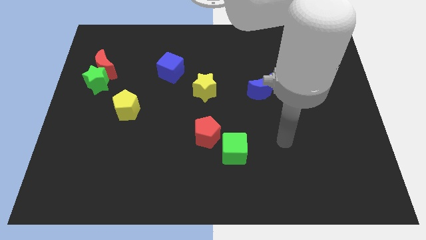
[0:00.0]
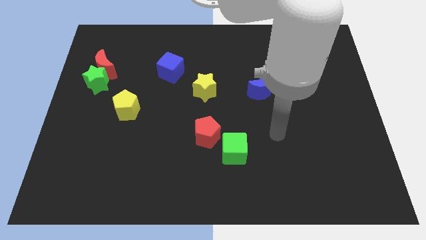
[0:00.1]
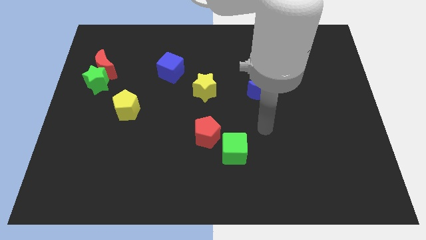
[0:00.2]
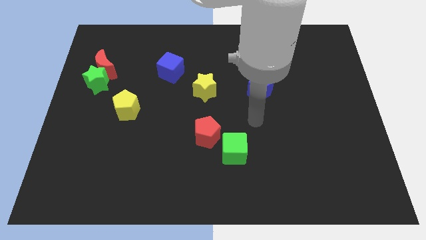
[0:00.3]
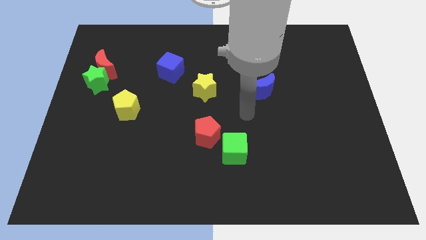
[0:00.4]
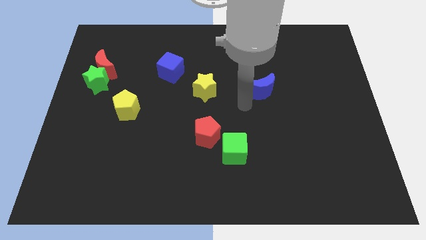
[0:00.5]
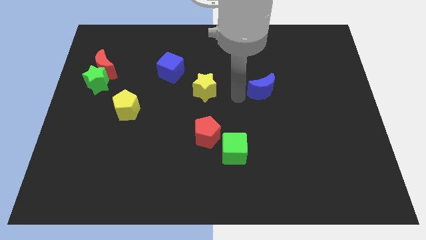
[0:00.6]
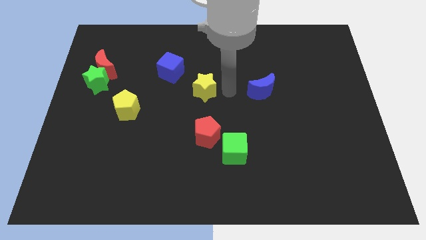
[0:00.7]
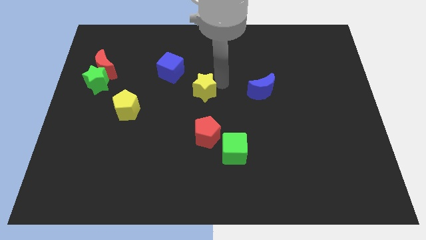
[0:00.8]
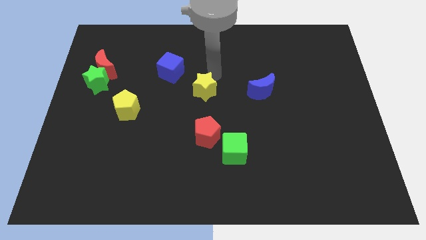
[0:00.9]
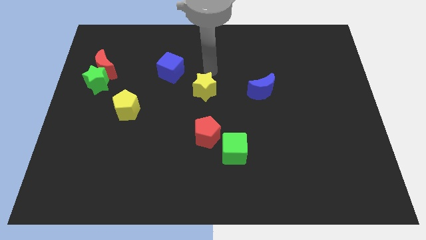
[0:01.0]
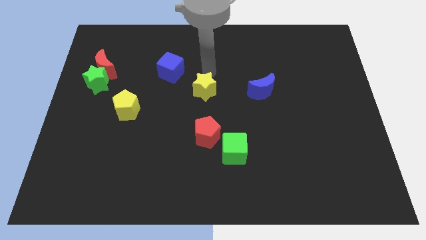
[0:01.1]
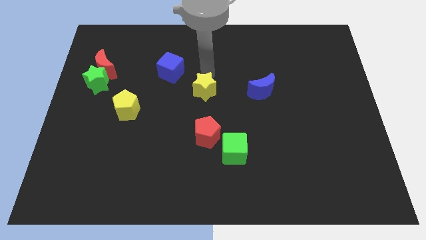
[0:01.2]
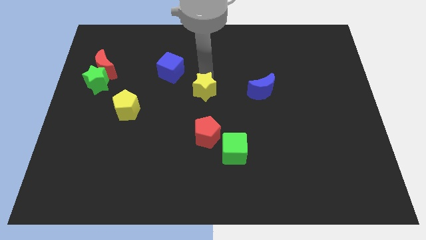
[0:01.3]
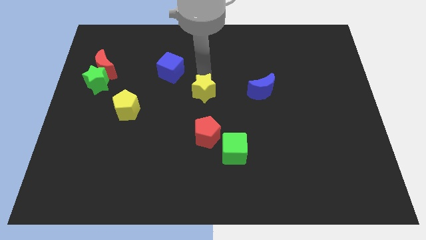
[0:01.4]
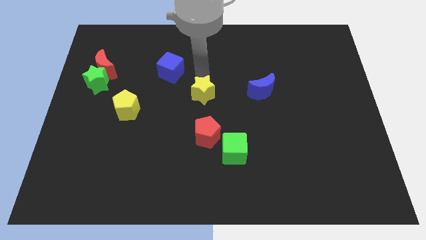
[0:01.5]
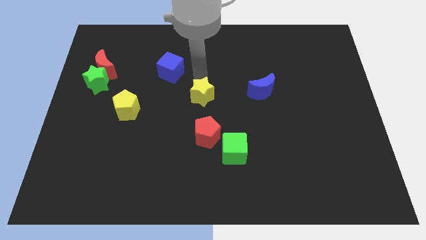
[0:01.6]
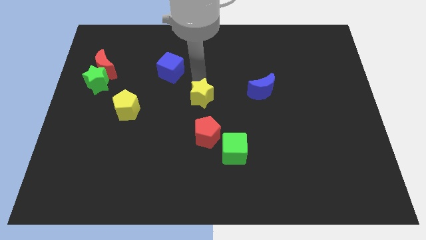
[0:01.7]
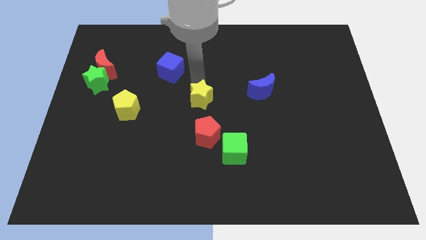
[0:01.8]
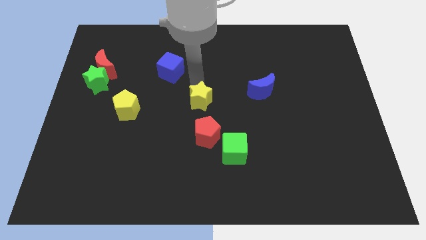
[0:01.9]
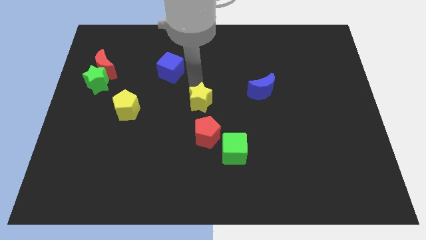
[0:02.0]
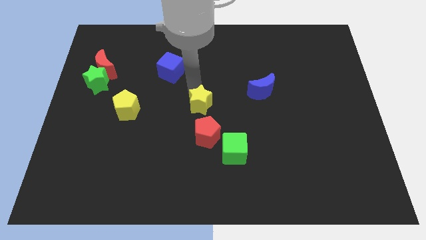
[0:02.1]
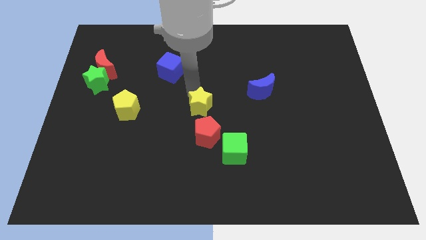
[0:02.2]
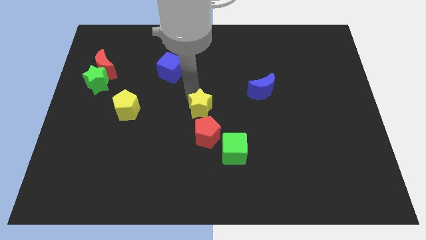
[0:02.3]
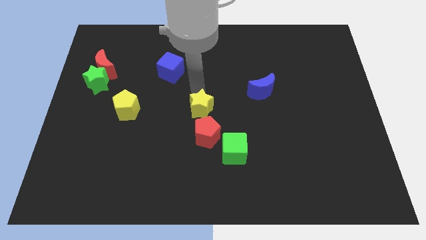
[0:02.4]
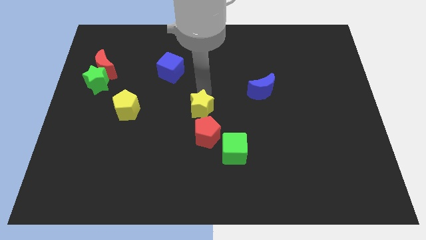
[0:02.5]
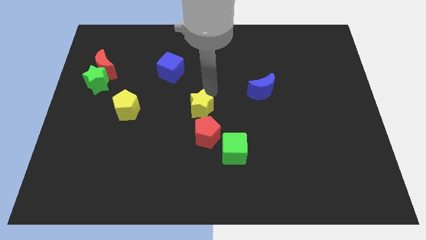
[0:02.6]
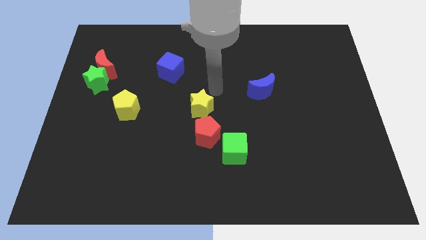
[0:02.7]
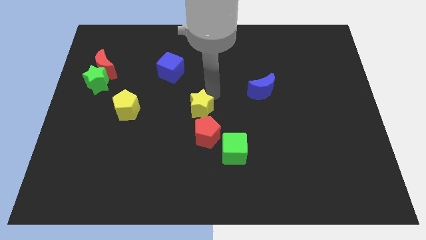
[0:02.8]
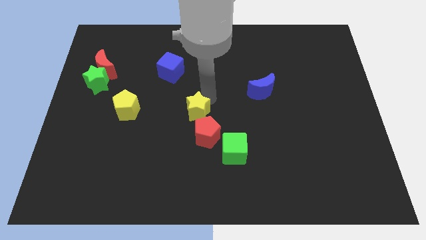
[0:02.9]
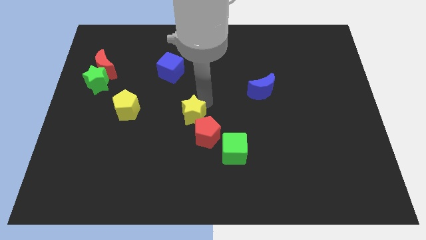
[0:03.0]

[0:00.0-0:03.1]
slightly push the yellow star down

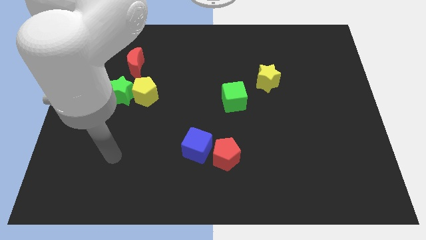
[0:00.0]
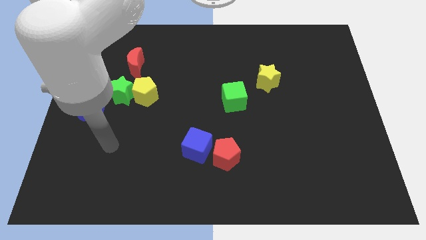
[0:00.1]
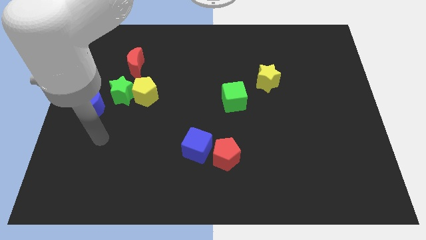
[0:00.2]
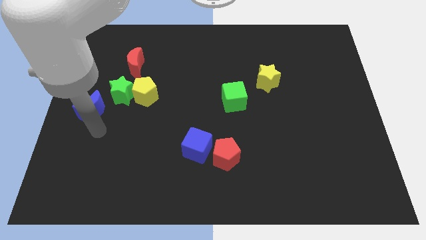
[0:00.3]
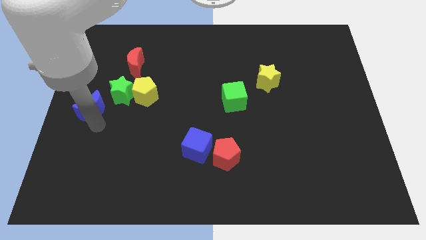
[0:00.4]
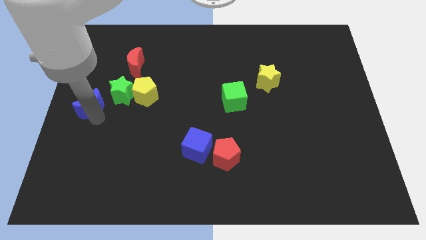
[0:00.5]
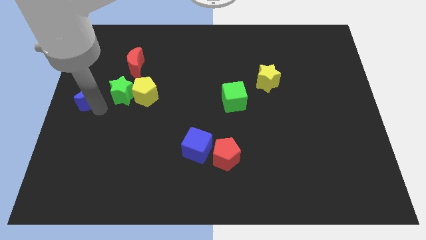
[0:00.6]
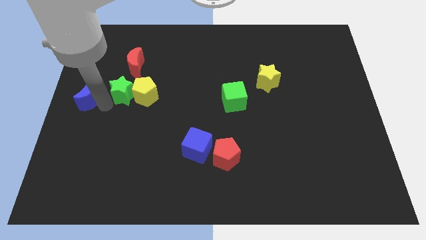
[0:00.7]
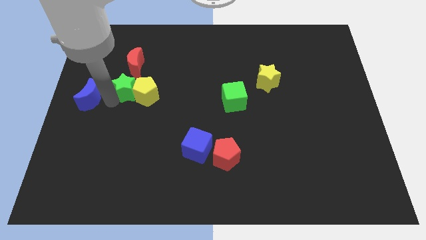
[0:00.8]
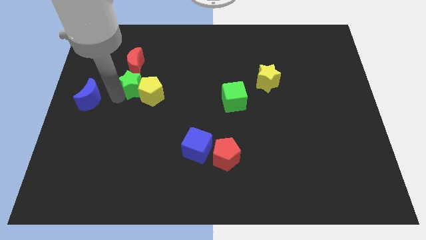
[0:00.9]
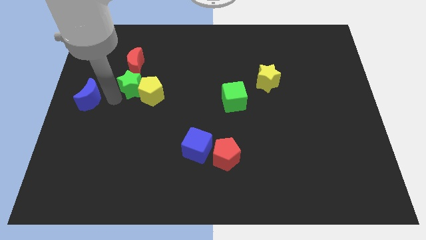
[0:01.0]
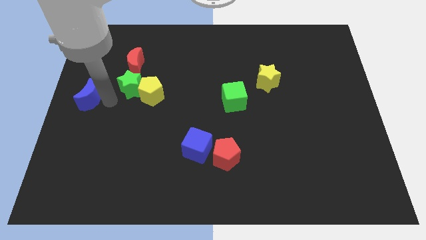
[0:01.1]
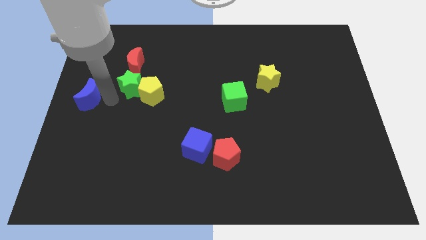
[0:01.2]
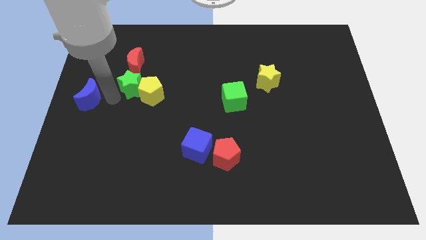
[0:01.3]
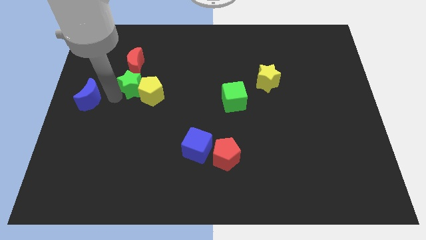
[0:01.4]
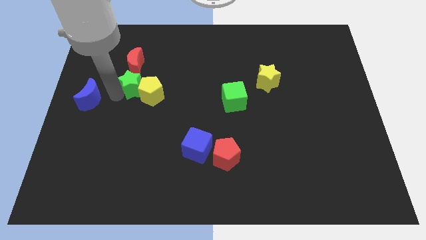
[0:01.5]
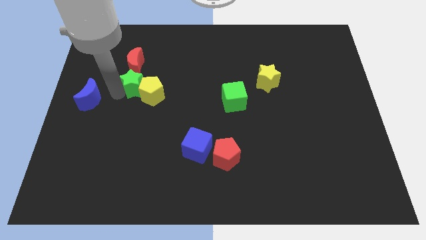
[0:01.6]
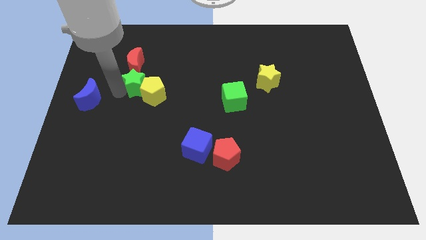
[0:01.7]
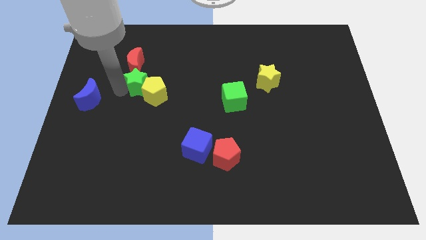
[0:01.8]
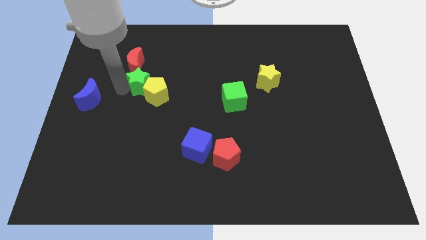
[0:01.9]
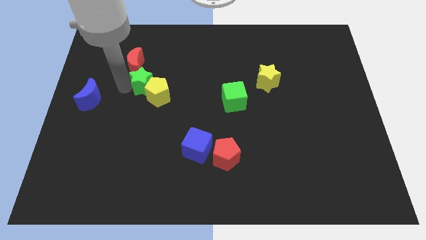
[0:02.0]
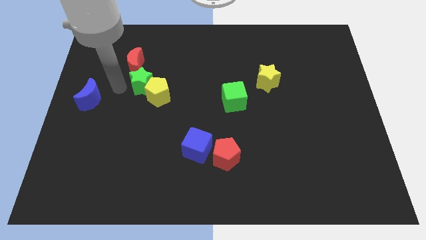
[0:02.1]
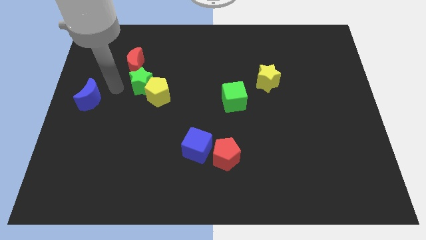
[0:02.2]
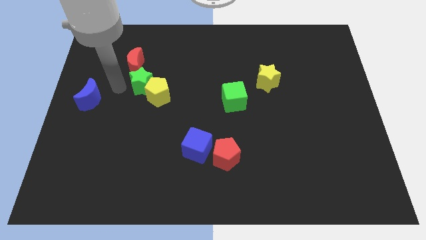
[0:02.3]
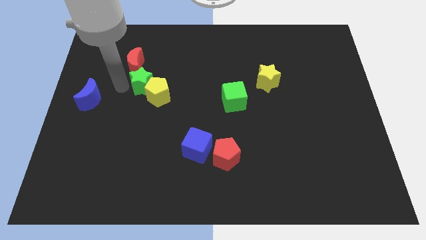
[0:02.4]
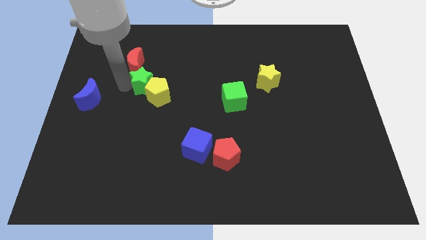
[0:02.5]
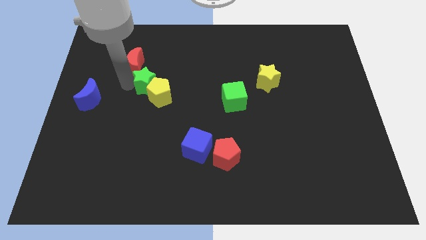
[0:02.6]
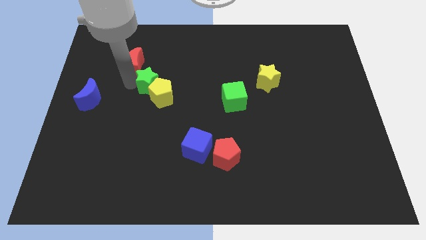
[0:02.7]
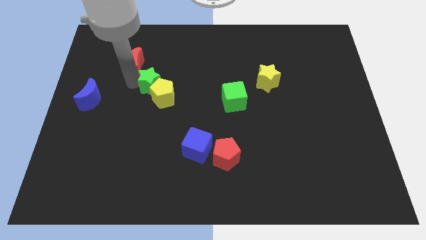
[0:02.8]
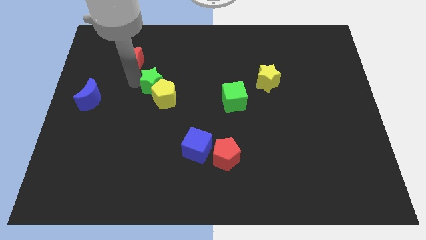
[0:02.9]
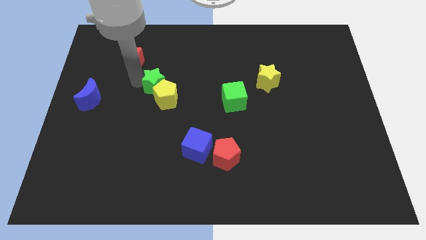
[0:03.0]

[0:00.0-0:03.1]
slightly slide the green star right

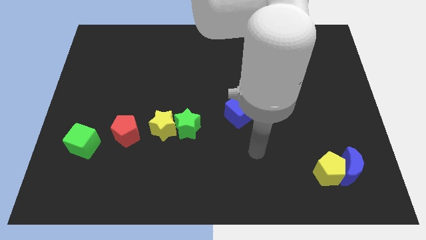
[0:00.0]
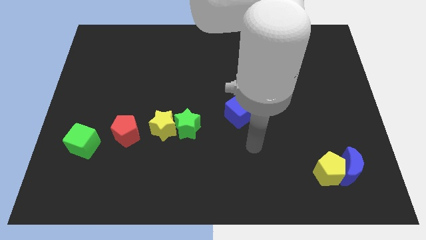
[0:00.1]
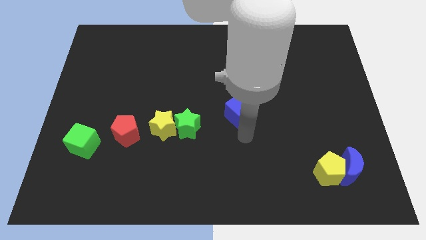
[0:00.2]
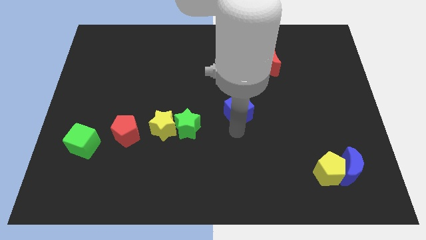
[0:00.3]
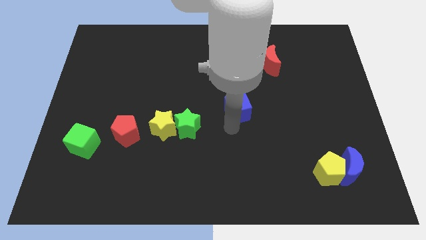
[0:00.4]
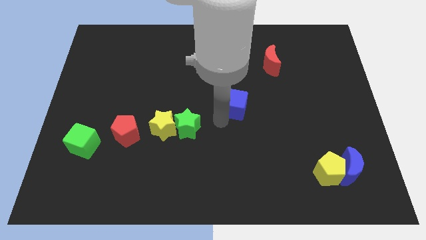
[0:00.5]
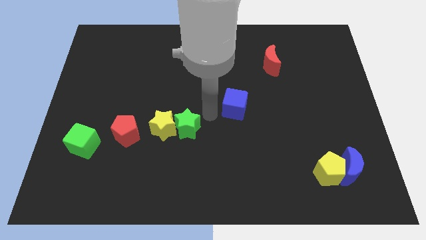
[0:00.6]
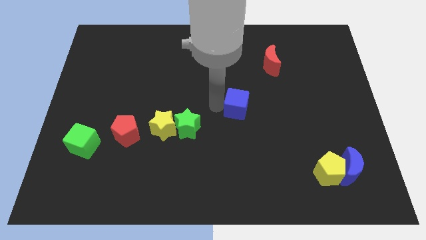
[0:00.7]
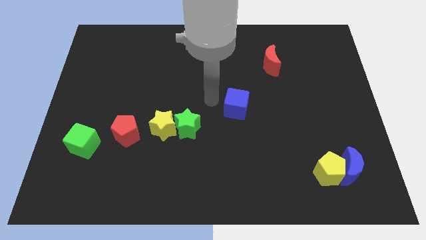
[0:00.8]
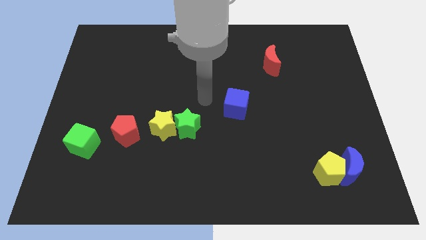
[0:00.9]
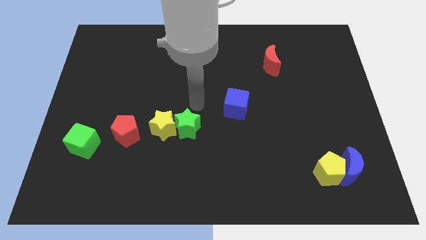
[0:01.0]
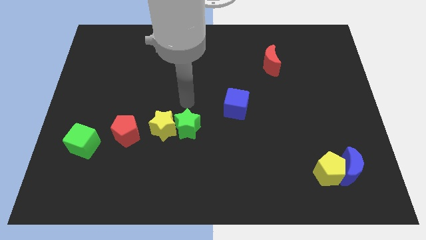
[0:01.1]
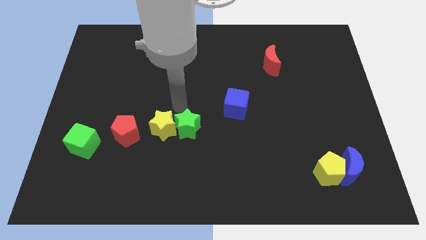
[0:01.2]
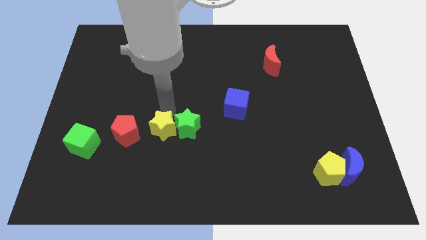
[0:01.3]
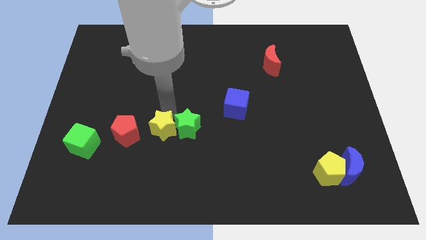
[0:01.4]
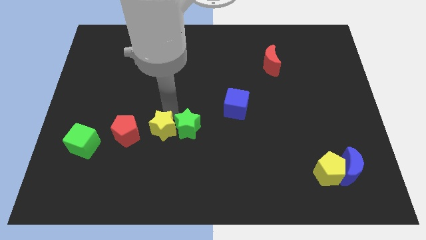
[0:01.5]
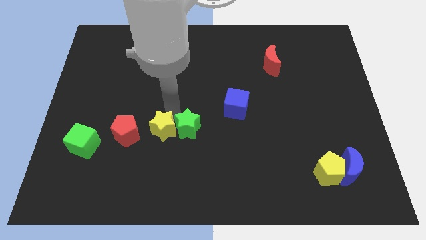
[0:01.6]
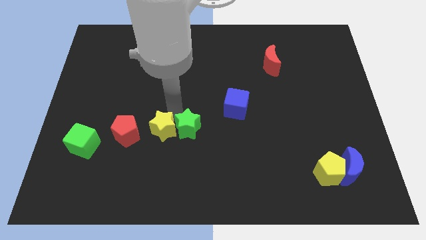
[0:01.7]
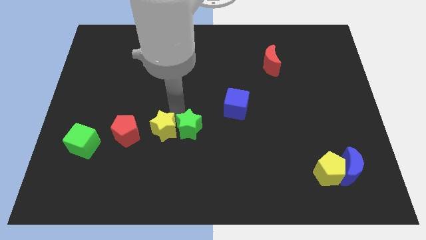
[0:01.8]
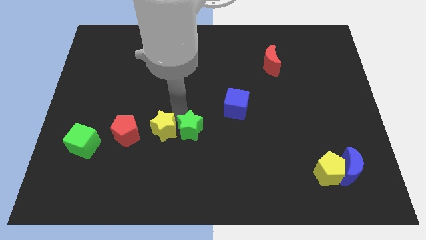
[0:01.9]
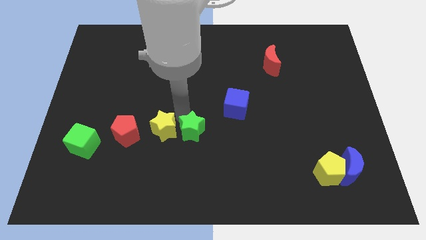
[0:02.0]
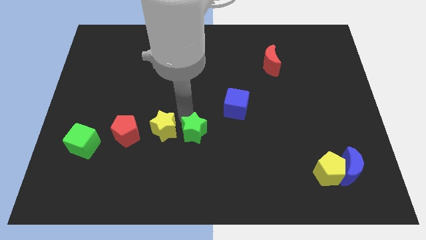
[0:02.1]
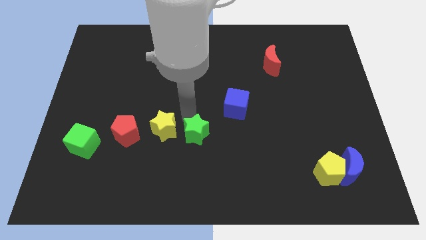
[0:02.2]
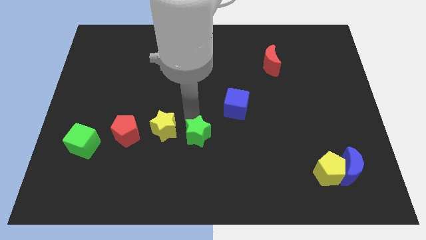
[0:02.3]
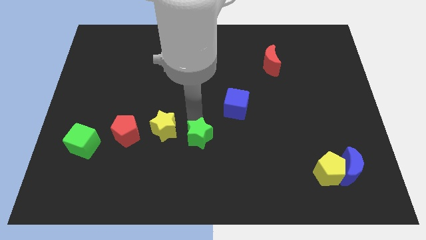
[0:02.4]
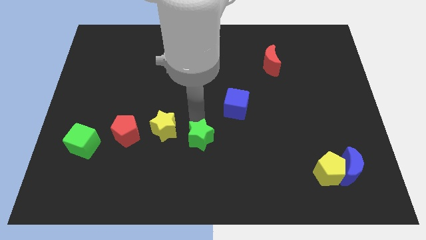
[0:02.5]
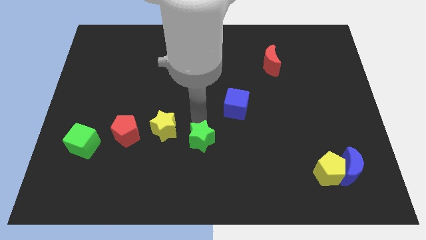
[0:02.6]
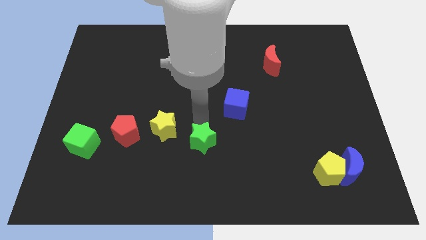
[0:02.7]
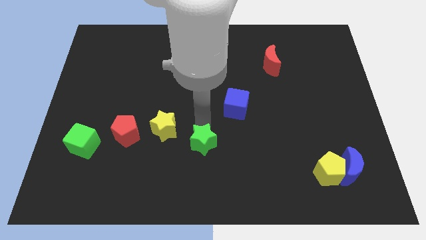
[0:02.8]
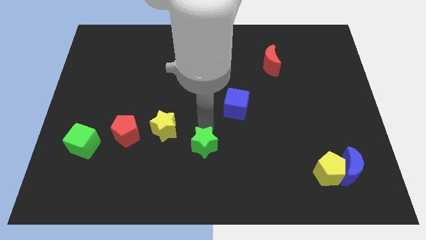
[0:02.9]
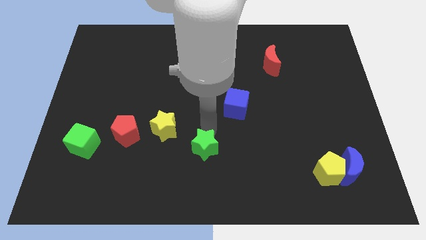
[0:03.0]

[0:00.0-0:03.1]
move the green star downwards and right diagonally somewhat
